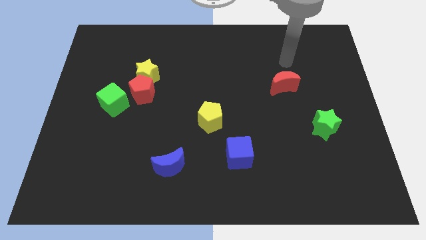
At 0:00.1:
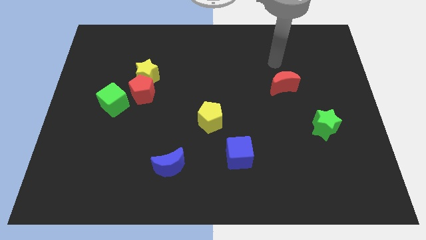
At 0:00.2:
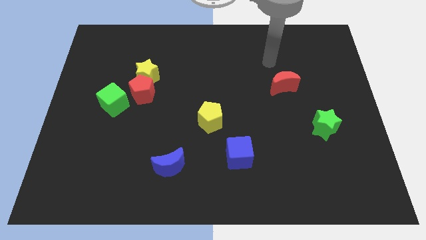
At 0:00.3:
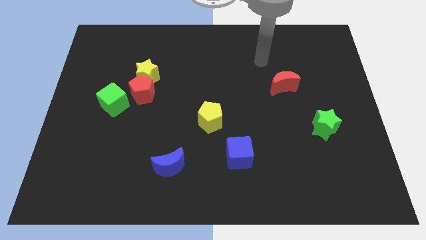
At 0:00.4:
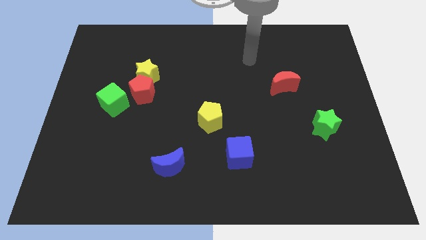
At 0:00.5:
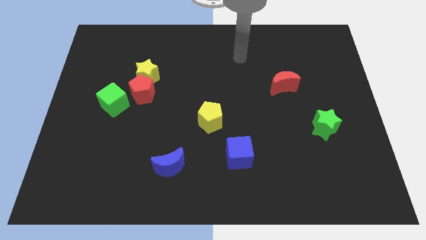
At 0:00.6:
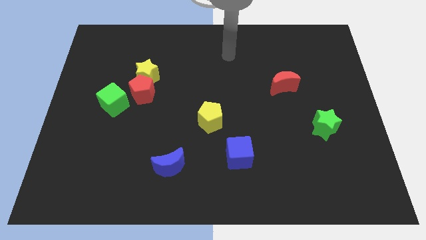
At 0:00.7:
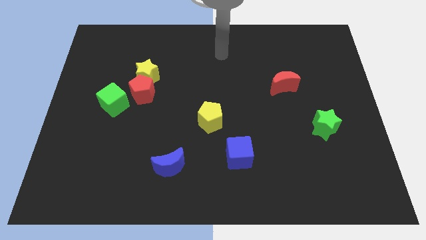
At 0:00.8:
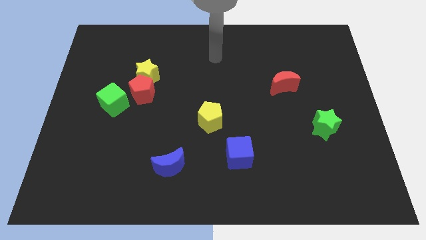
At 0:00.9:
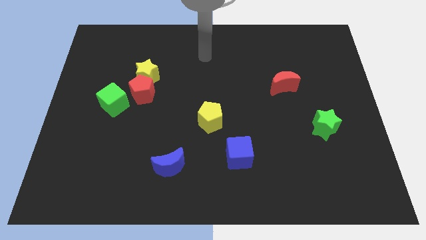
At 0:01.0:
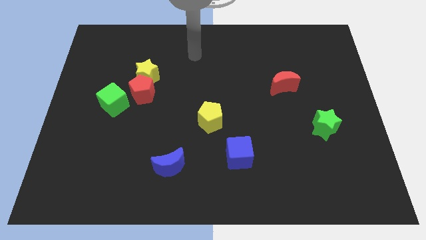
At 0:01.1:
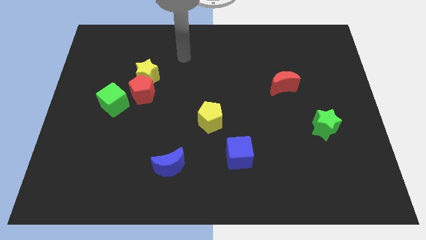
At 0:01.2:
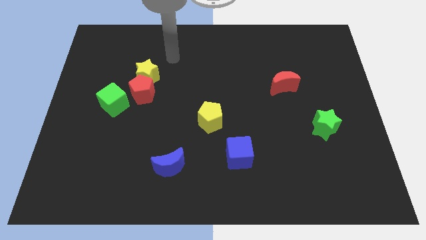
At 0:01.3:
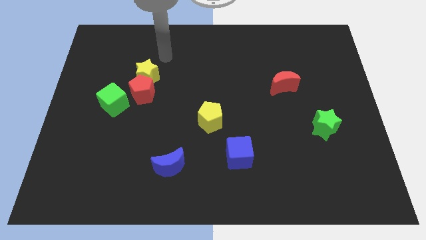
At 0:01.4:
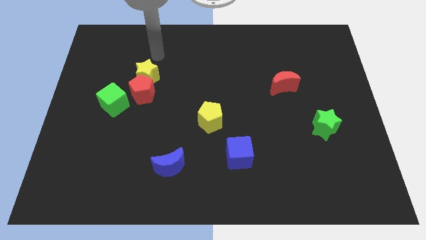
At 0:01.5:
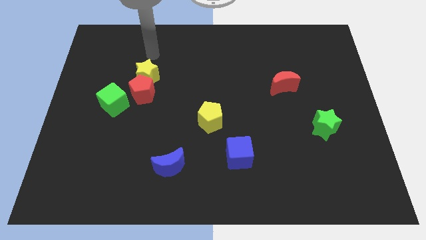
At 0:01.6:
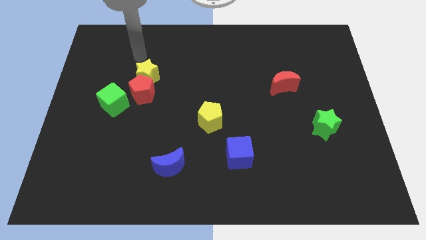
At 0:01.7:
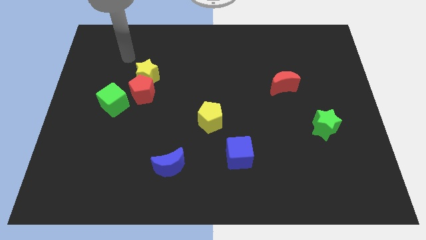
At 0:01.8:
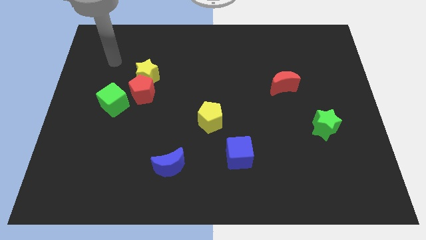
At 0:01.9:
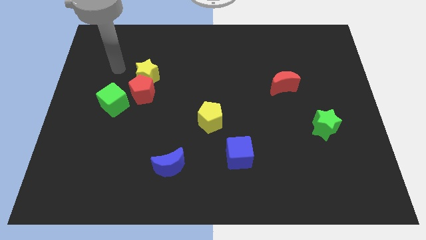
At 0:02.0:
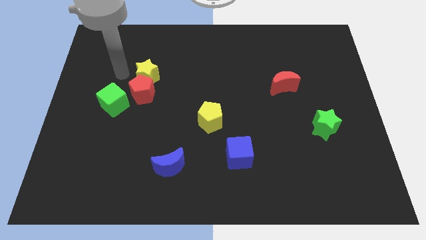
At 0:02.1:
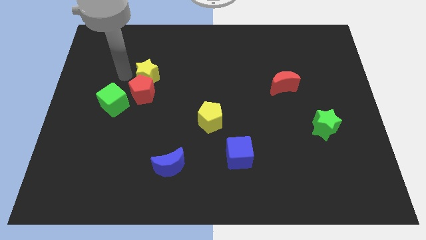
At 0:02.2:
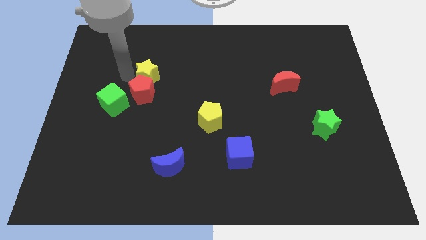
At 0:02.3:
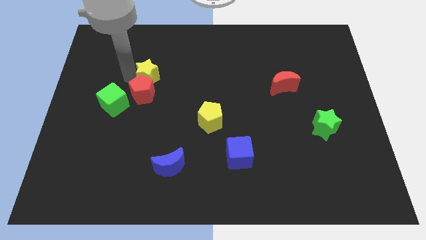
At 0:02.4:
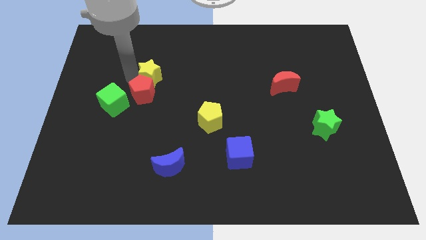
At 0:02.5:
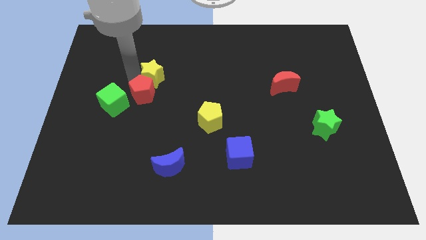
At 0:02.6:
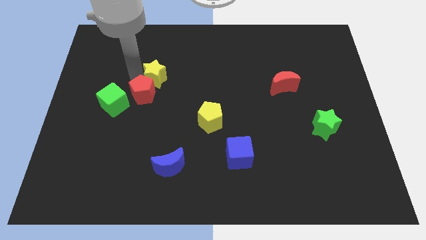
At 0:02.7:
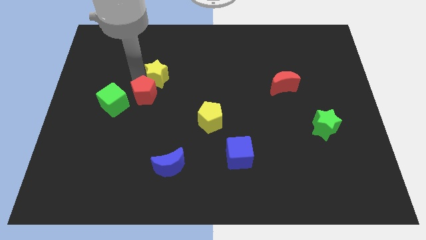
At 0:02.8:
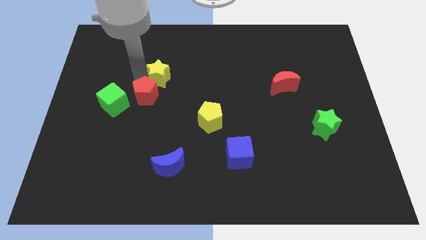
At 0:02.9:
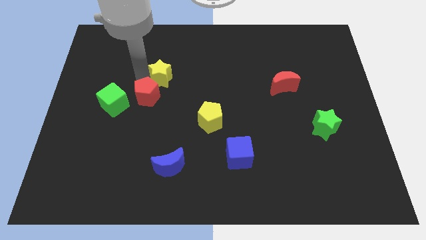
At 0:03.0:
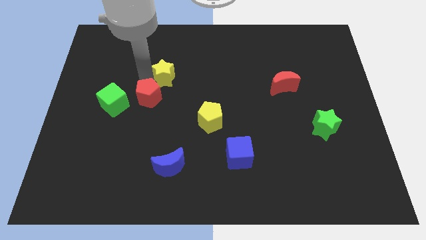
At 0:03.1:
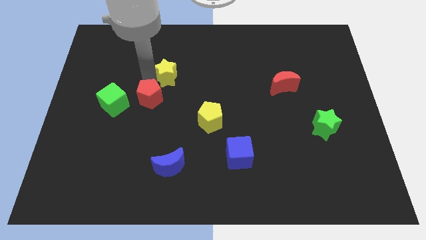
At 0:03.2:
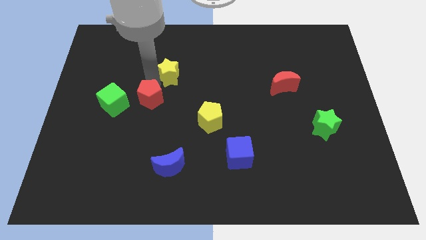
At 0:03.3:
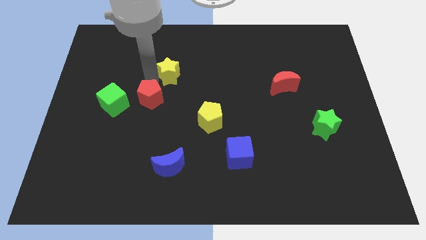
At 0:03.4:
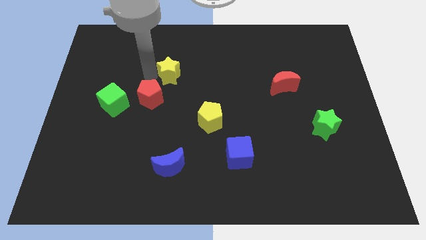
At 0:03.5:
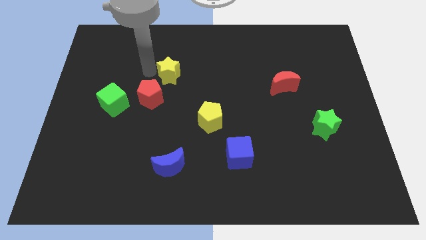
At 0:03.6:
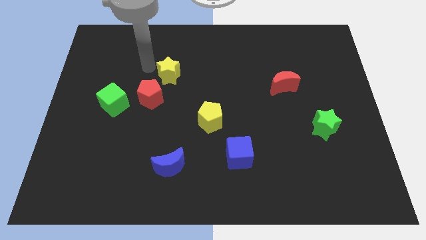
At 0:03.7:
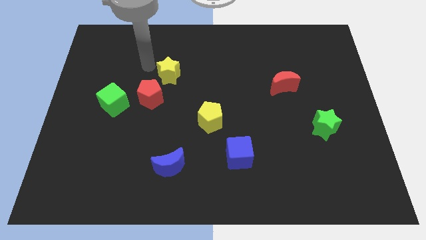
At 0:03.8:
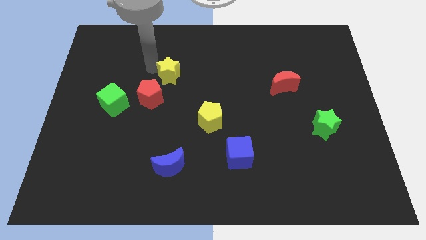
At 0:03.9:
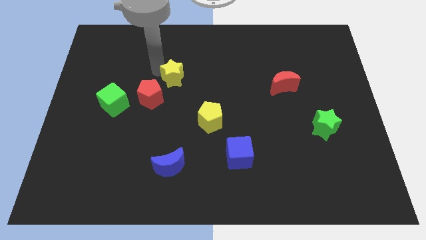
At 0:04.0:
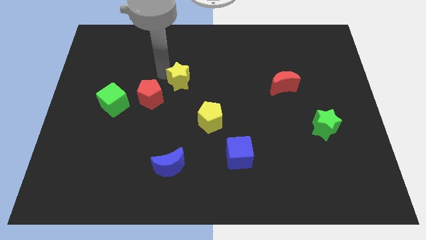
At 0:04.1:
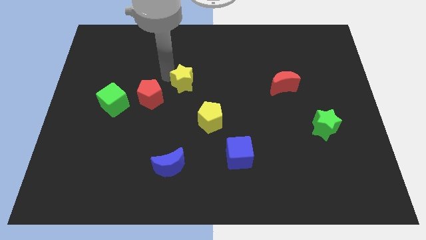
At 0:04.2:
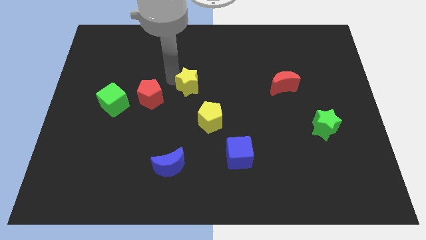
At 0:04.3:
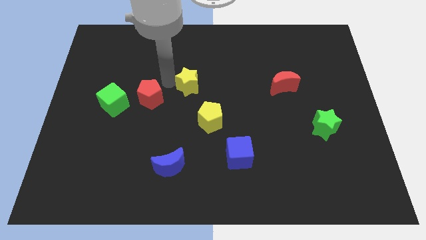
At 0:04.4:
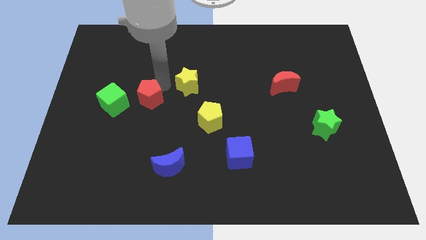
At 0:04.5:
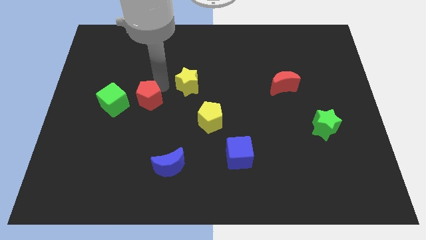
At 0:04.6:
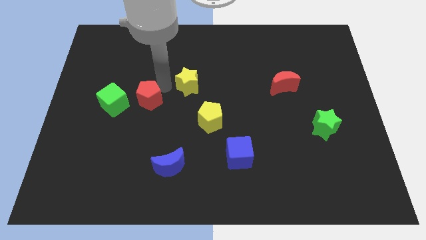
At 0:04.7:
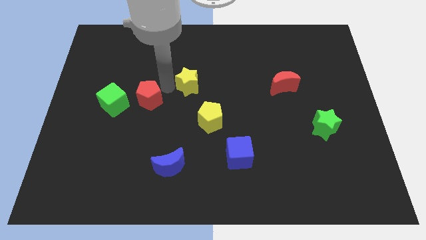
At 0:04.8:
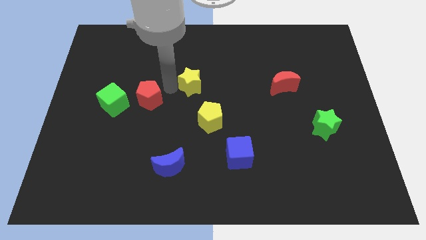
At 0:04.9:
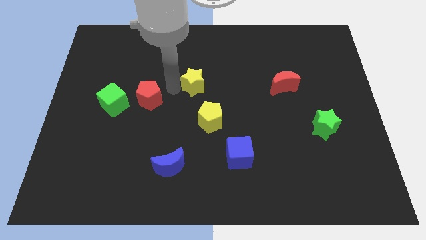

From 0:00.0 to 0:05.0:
put the yellow star above the yellow pentagon

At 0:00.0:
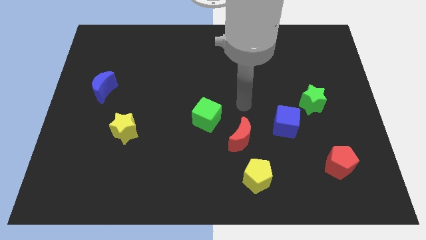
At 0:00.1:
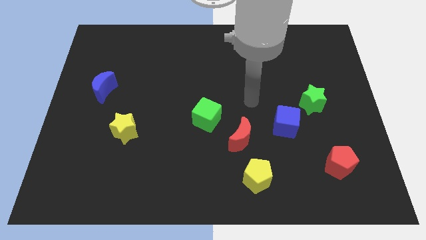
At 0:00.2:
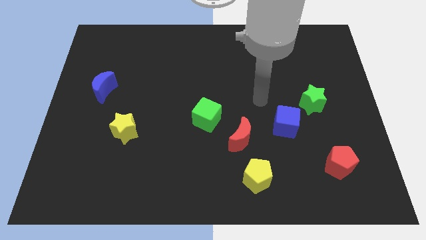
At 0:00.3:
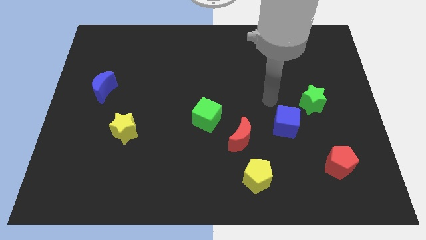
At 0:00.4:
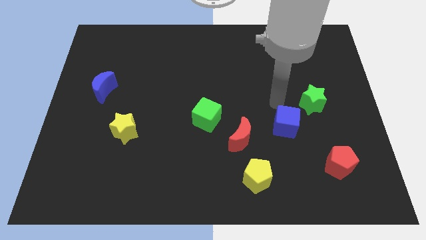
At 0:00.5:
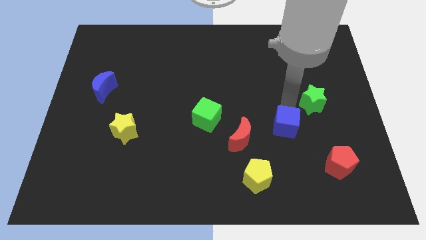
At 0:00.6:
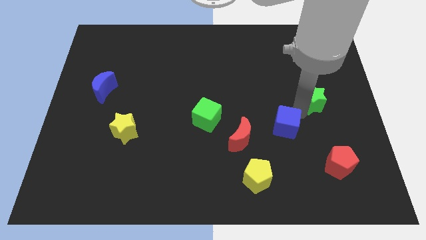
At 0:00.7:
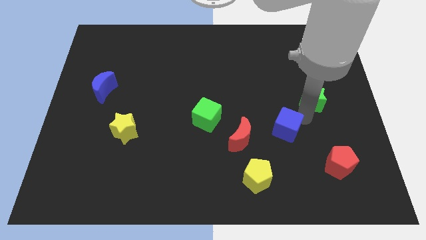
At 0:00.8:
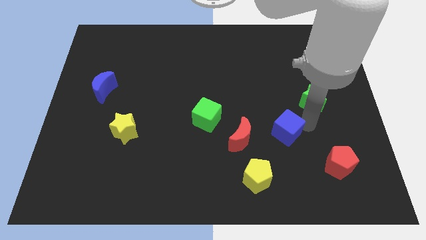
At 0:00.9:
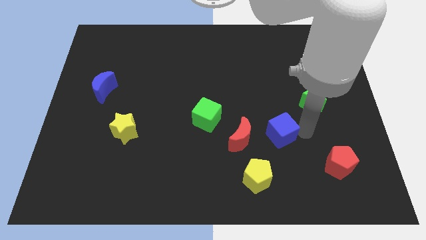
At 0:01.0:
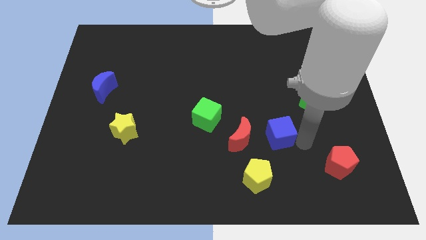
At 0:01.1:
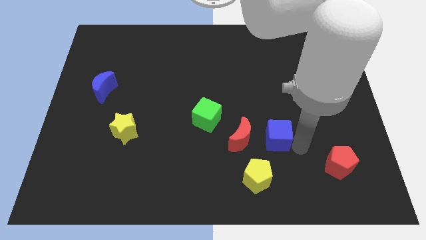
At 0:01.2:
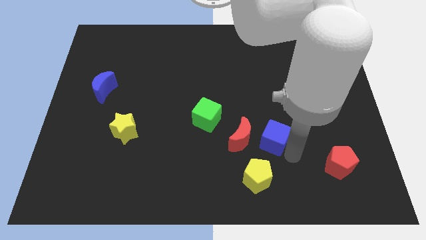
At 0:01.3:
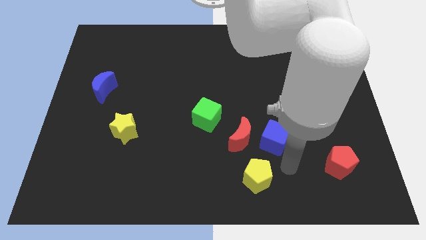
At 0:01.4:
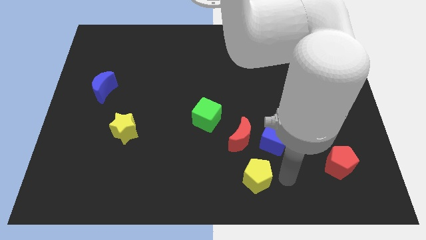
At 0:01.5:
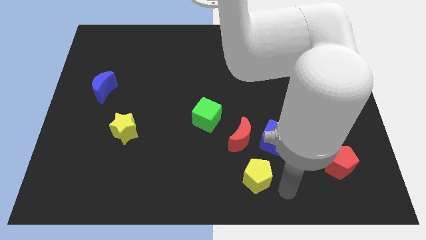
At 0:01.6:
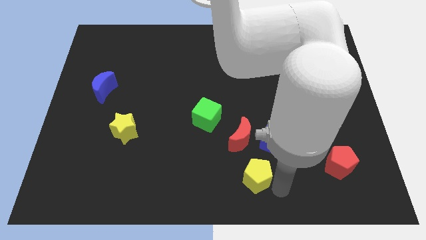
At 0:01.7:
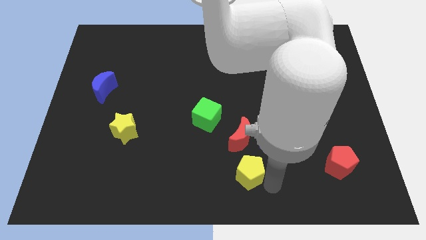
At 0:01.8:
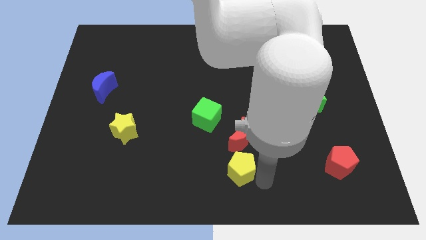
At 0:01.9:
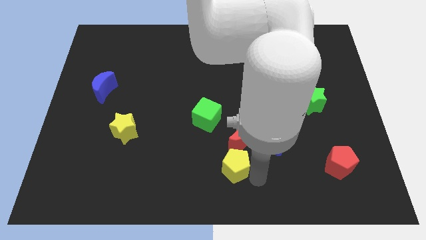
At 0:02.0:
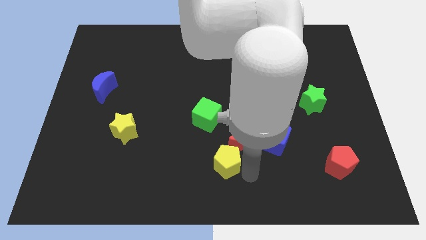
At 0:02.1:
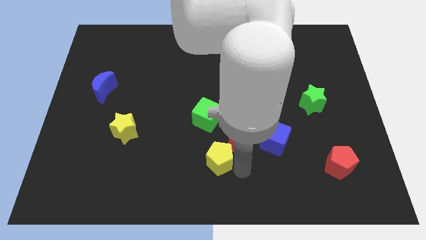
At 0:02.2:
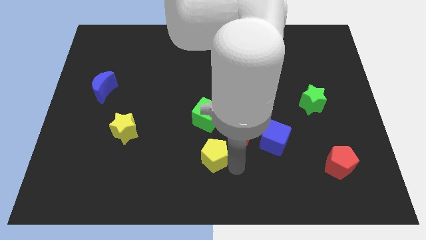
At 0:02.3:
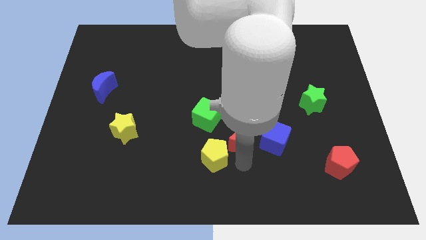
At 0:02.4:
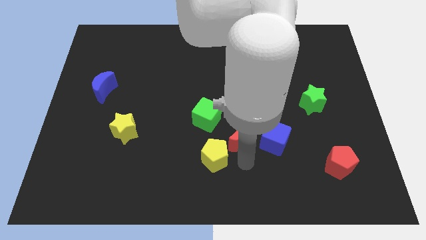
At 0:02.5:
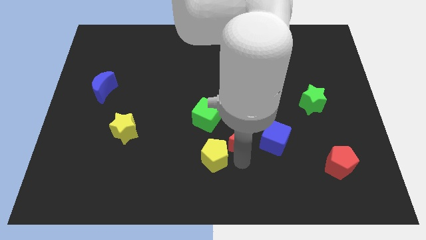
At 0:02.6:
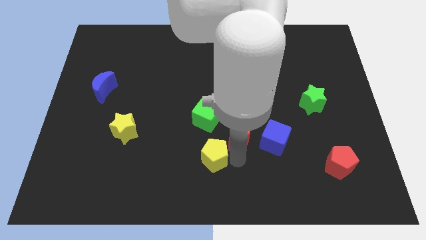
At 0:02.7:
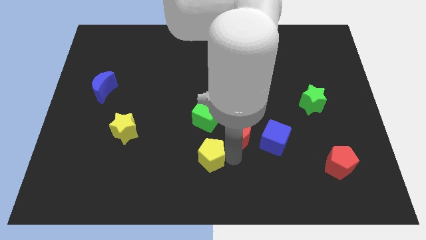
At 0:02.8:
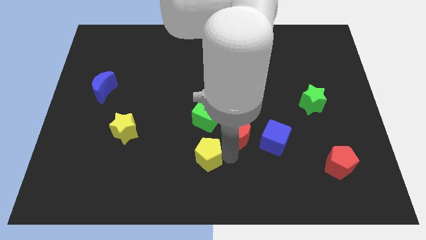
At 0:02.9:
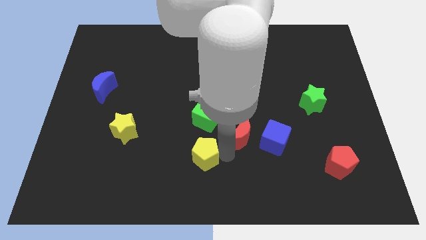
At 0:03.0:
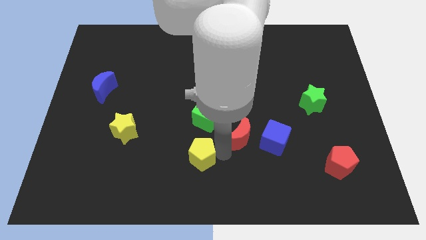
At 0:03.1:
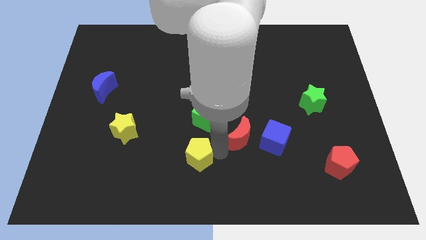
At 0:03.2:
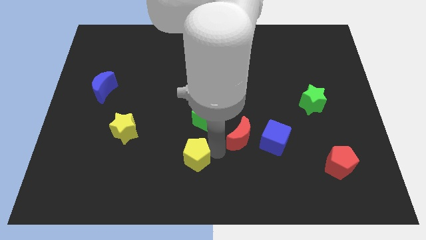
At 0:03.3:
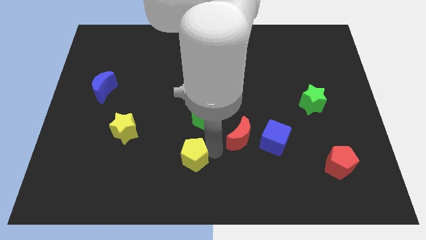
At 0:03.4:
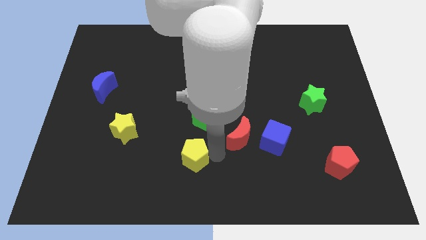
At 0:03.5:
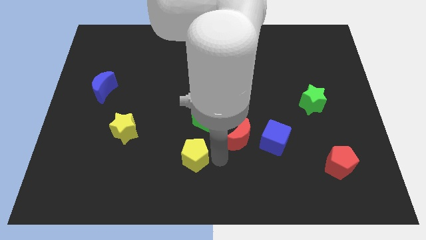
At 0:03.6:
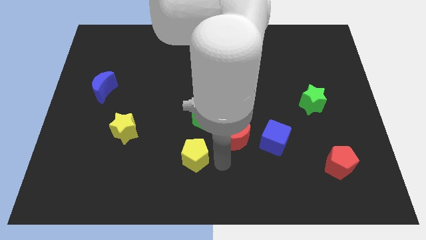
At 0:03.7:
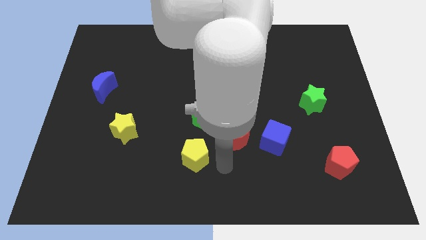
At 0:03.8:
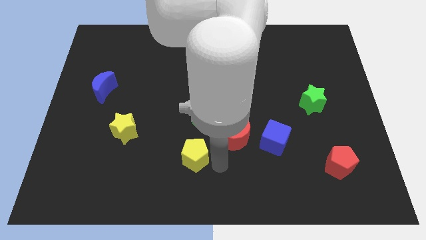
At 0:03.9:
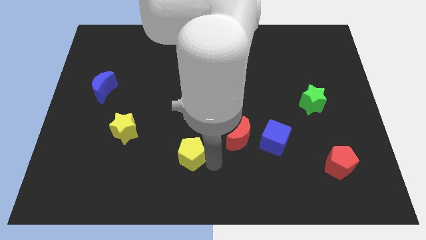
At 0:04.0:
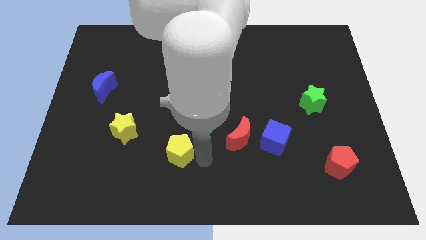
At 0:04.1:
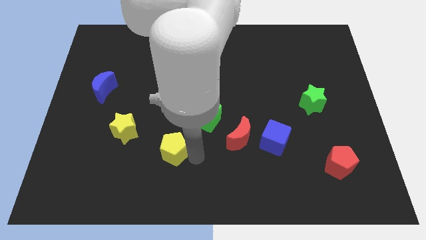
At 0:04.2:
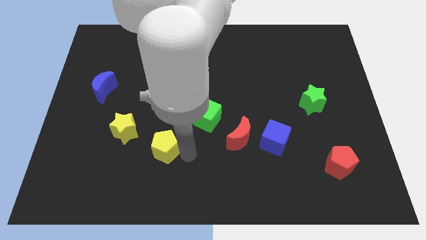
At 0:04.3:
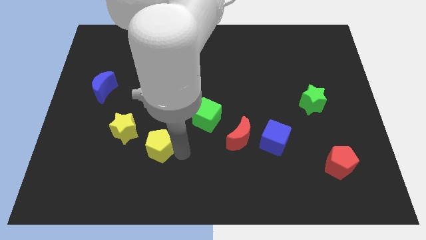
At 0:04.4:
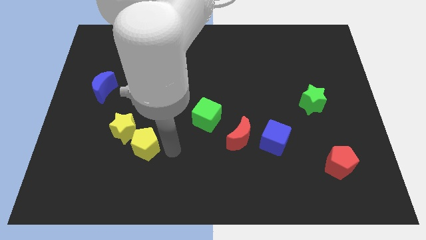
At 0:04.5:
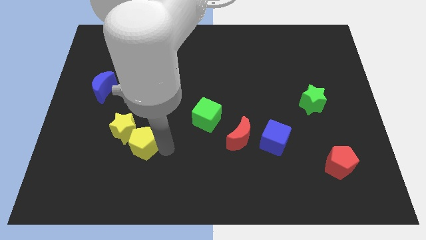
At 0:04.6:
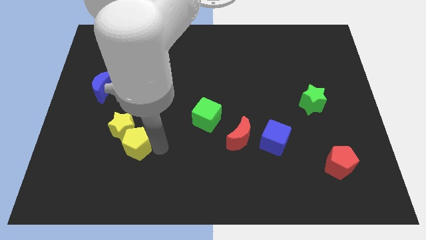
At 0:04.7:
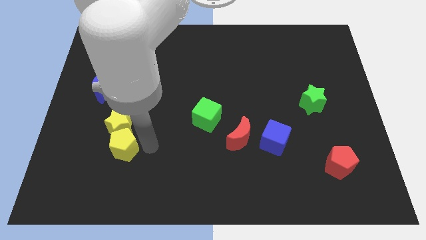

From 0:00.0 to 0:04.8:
move the yellow pentagon to the bottom left of the yellow star
